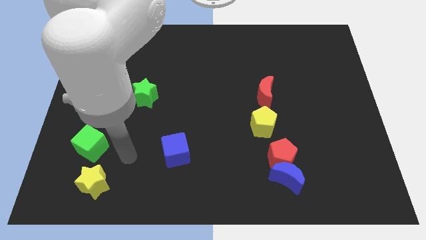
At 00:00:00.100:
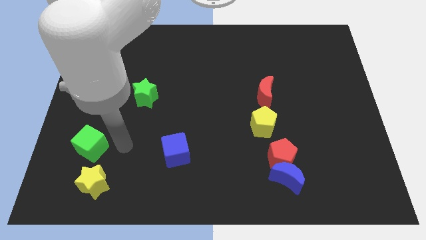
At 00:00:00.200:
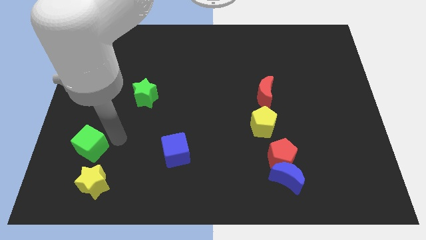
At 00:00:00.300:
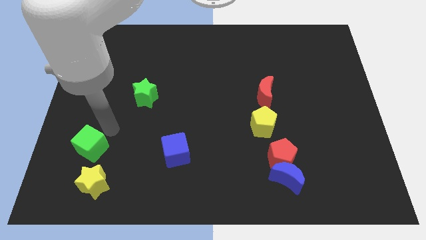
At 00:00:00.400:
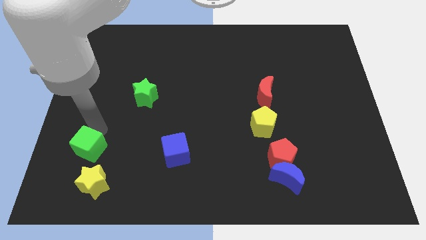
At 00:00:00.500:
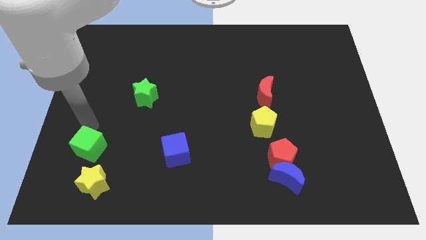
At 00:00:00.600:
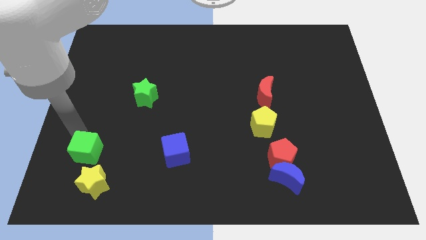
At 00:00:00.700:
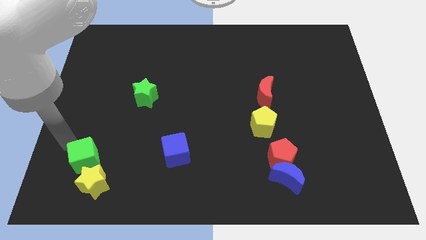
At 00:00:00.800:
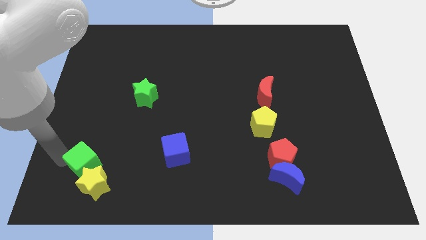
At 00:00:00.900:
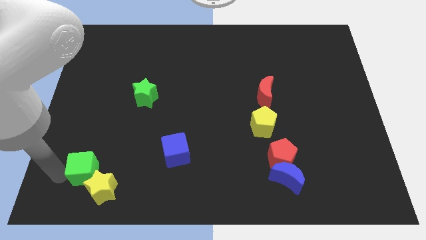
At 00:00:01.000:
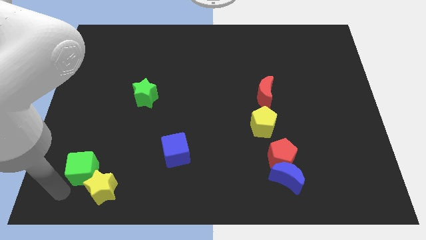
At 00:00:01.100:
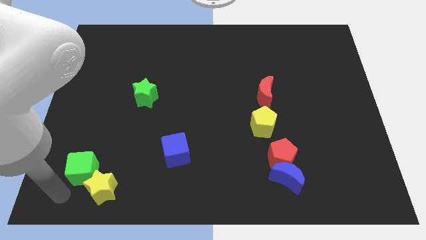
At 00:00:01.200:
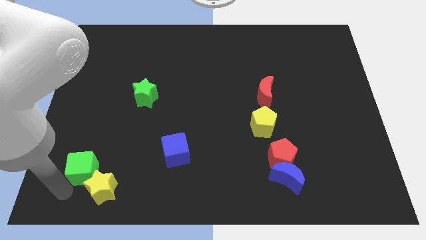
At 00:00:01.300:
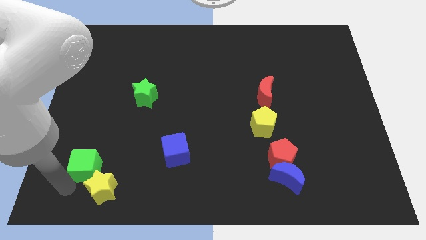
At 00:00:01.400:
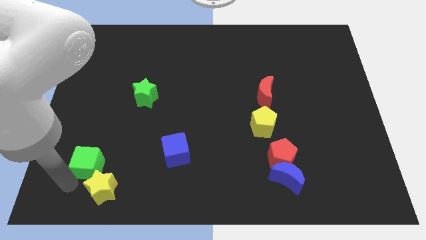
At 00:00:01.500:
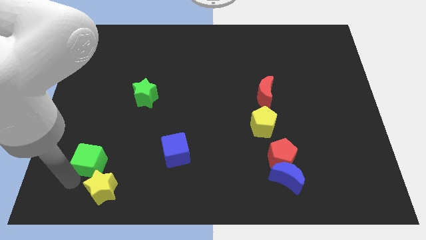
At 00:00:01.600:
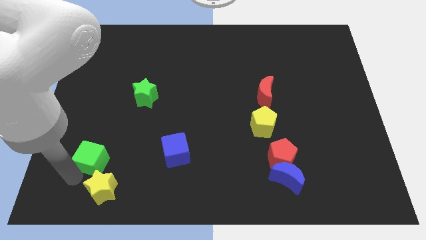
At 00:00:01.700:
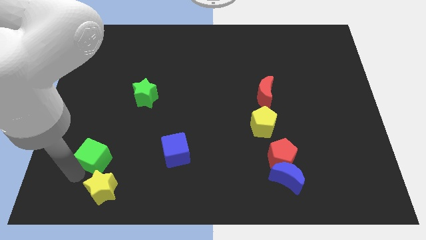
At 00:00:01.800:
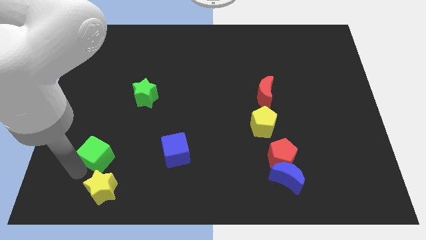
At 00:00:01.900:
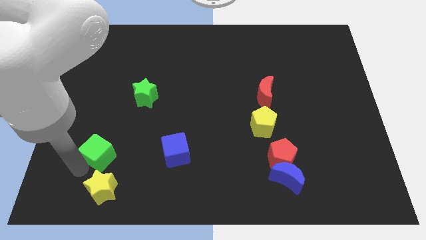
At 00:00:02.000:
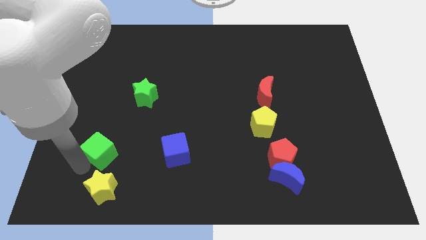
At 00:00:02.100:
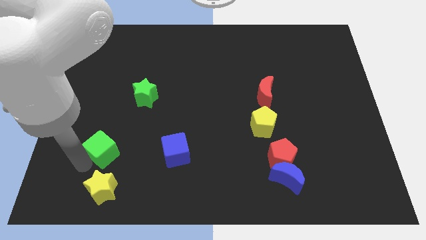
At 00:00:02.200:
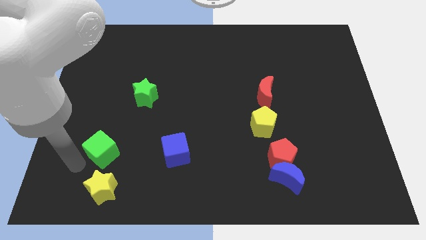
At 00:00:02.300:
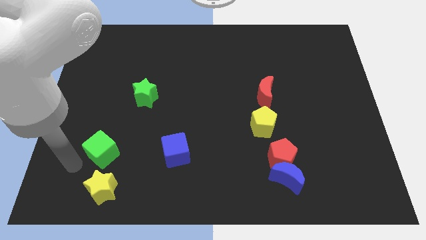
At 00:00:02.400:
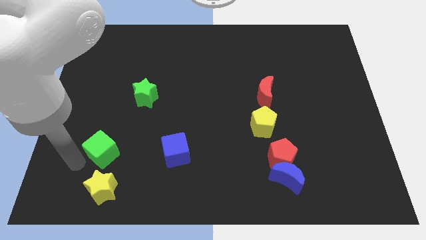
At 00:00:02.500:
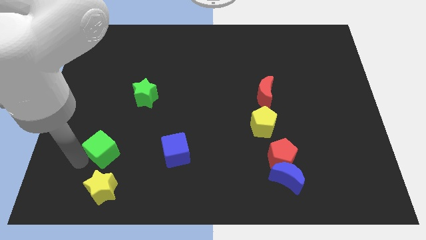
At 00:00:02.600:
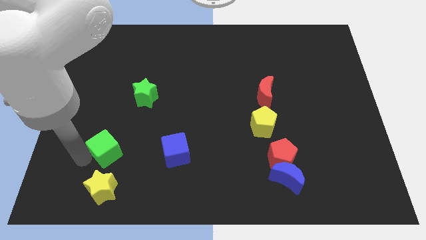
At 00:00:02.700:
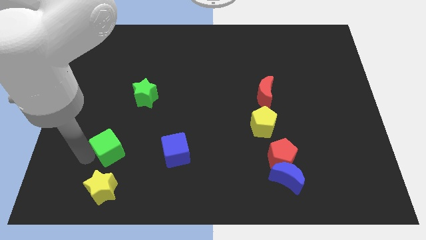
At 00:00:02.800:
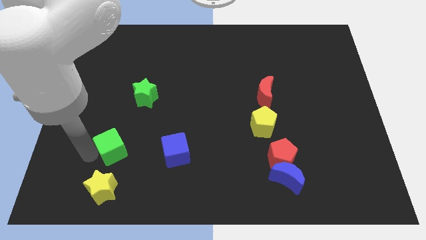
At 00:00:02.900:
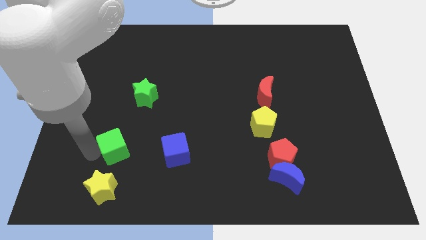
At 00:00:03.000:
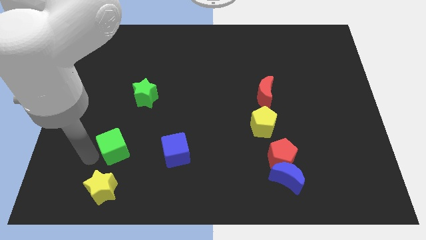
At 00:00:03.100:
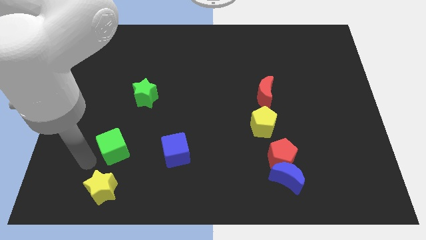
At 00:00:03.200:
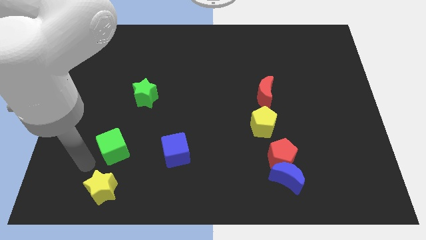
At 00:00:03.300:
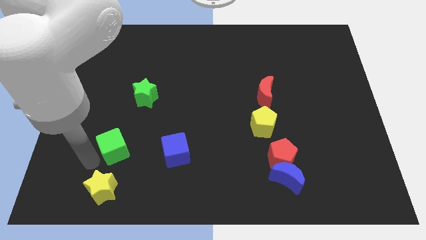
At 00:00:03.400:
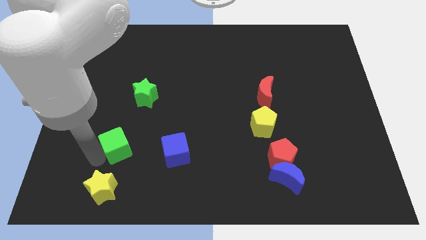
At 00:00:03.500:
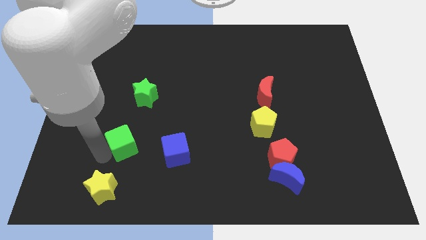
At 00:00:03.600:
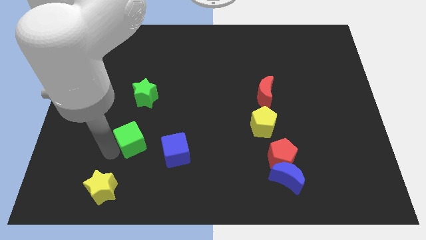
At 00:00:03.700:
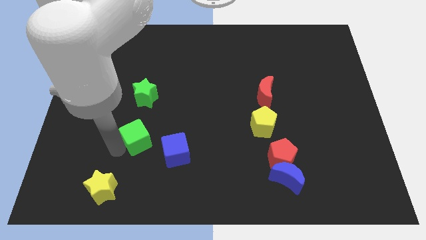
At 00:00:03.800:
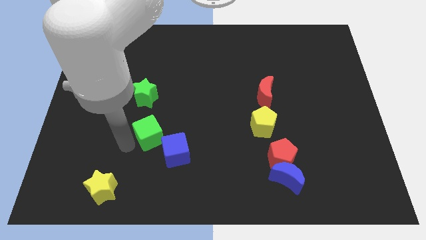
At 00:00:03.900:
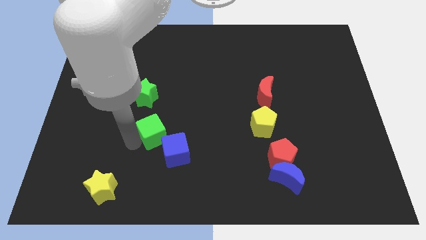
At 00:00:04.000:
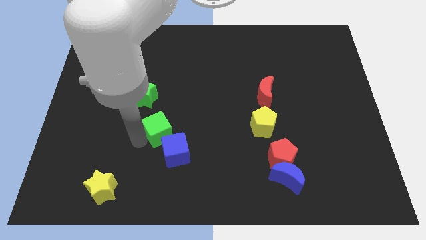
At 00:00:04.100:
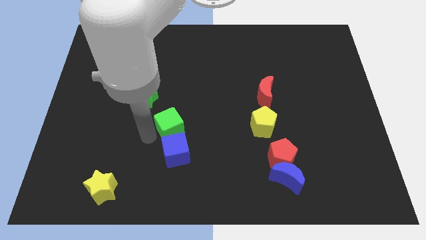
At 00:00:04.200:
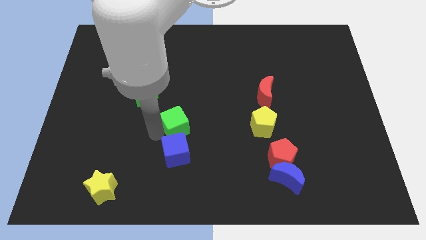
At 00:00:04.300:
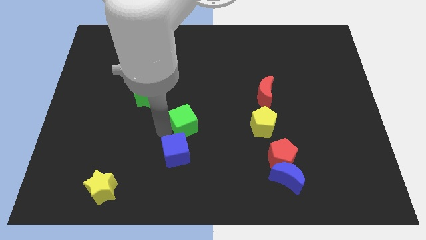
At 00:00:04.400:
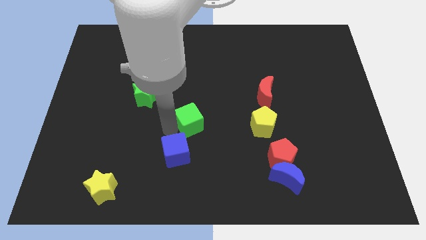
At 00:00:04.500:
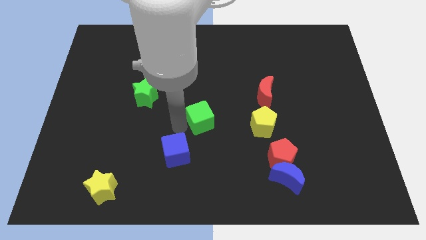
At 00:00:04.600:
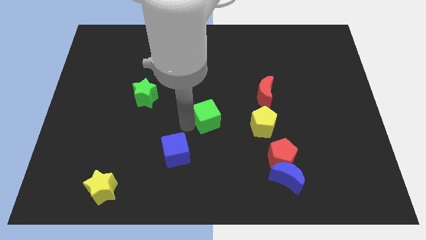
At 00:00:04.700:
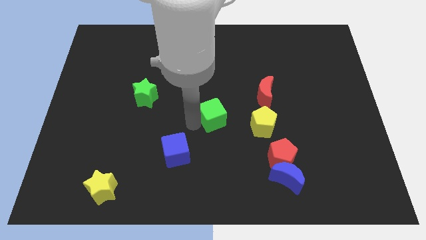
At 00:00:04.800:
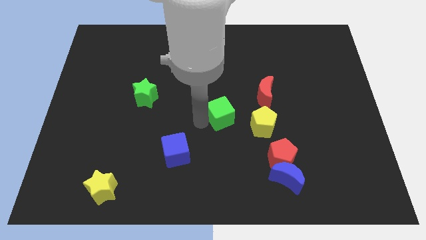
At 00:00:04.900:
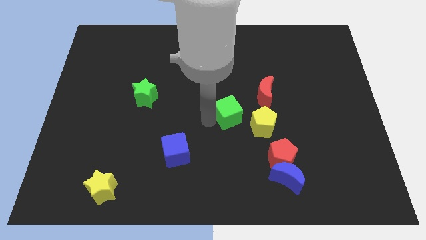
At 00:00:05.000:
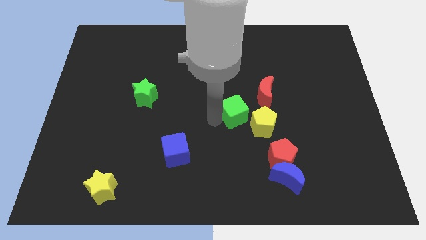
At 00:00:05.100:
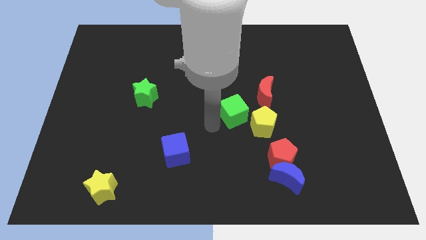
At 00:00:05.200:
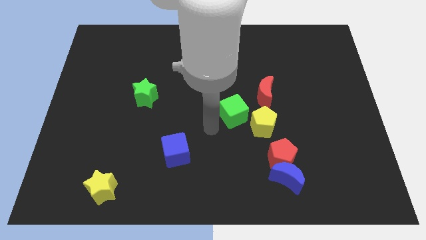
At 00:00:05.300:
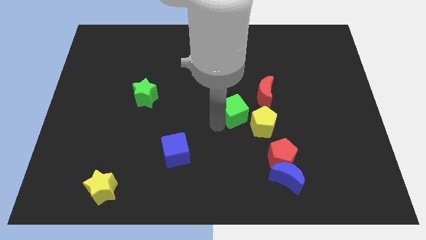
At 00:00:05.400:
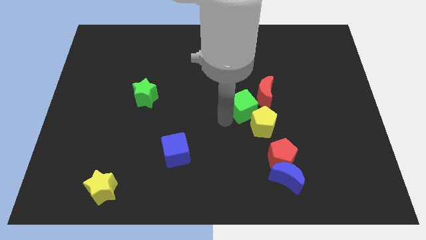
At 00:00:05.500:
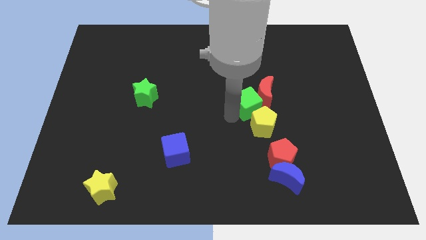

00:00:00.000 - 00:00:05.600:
put the green cube towards the red moon

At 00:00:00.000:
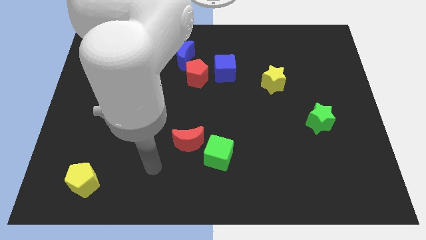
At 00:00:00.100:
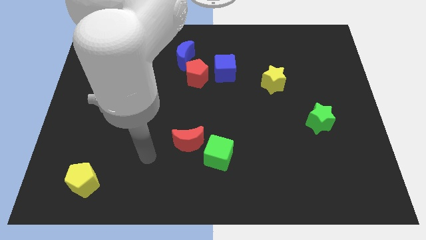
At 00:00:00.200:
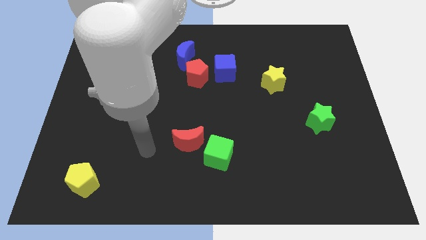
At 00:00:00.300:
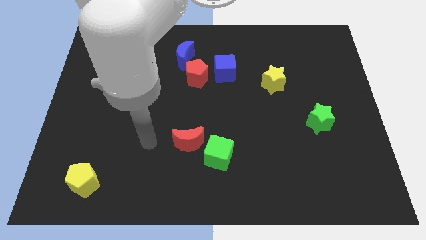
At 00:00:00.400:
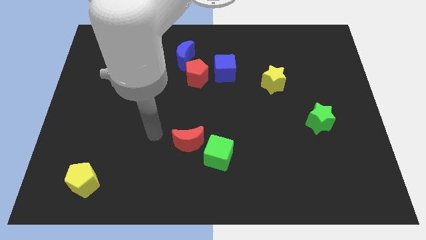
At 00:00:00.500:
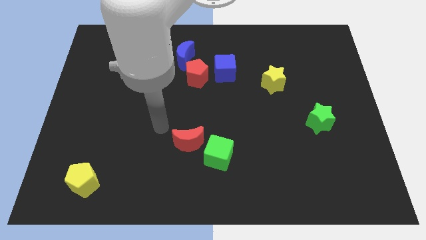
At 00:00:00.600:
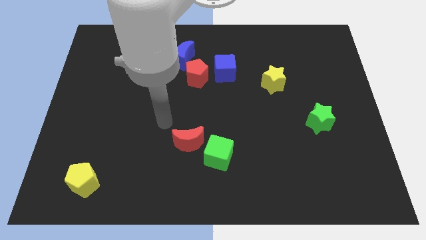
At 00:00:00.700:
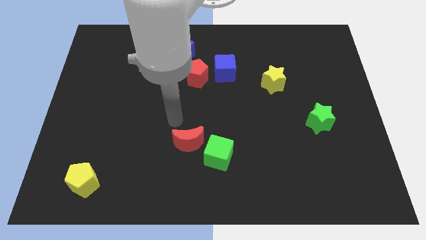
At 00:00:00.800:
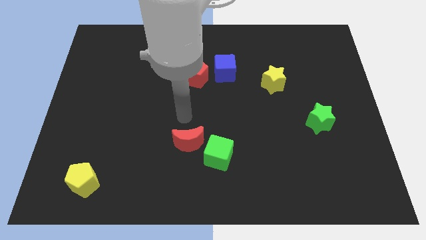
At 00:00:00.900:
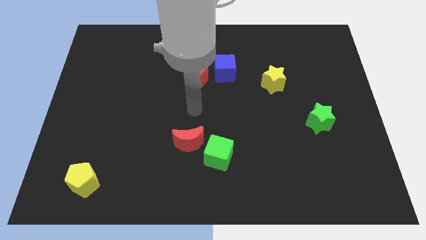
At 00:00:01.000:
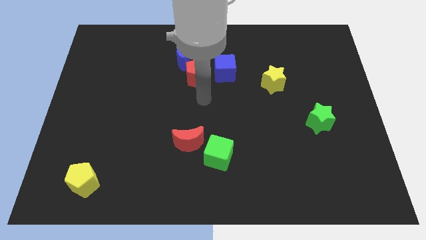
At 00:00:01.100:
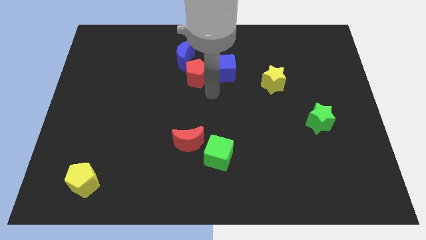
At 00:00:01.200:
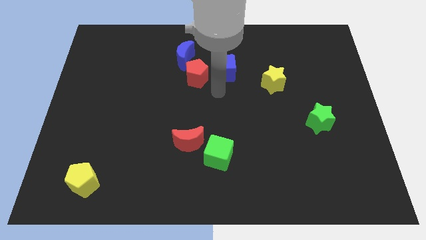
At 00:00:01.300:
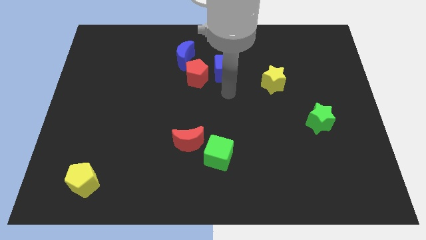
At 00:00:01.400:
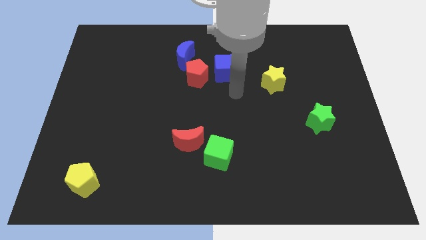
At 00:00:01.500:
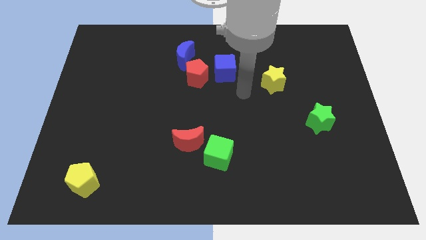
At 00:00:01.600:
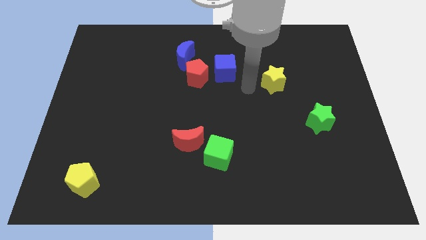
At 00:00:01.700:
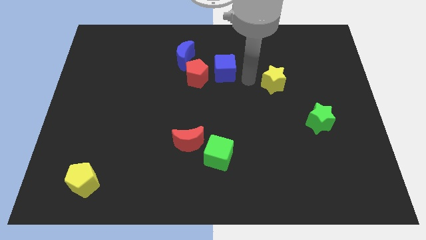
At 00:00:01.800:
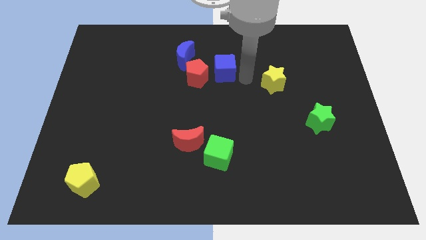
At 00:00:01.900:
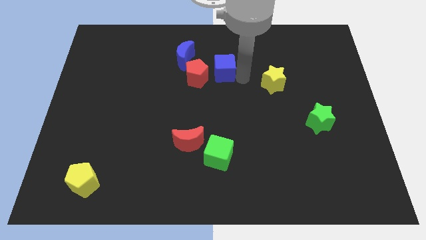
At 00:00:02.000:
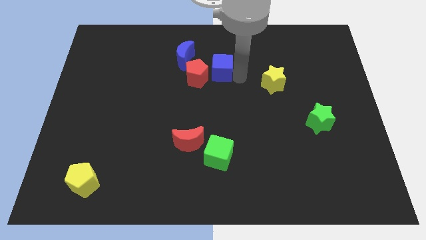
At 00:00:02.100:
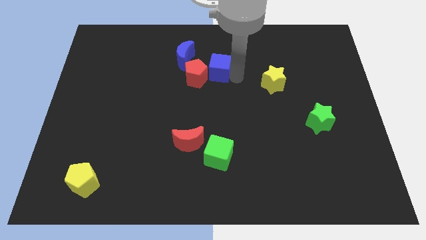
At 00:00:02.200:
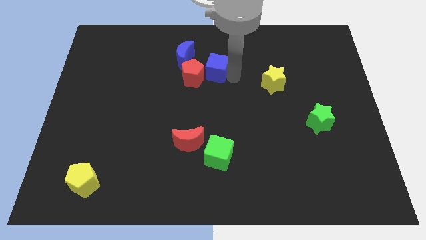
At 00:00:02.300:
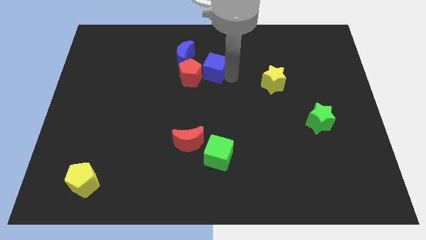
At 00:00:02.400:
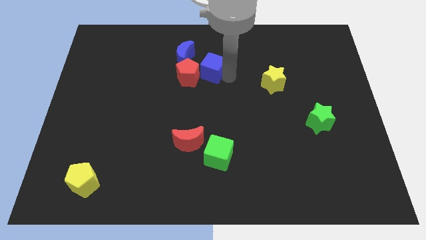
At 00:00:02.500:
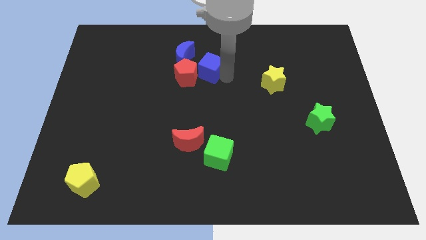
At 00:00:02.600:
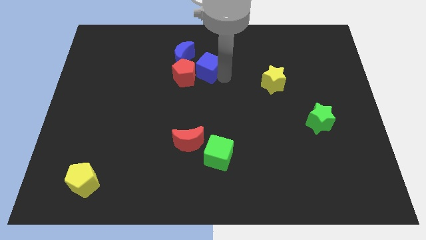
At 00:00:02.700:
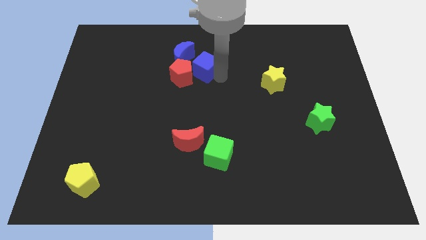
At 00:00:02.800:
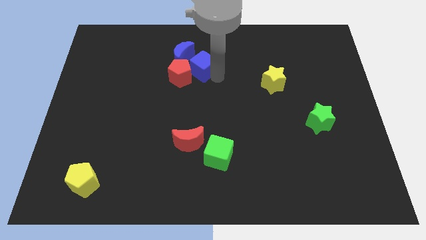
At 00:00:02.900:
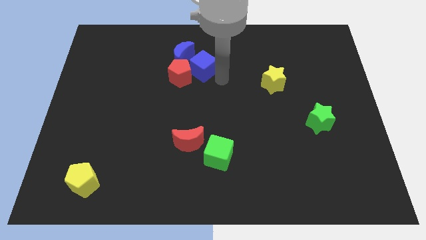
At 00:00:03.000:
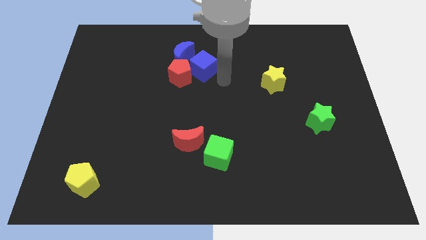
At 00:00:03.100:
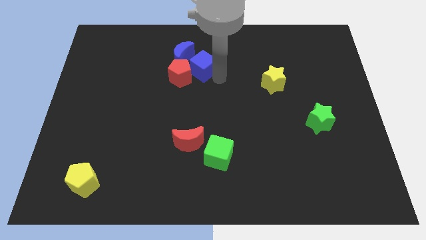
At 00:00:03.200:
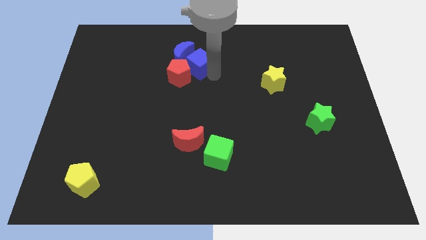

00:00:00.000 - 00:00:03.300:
slide the blue cube close to the blue moon
